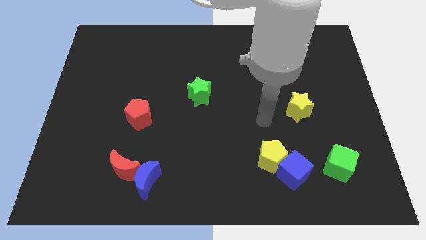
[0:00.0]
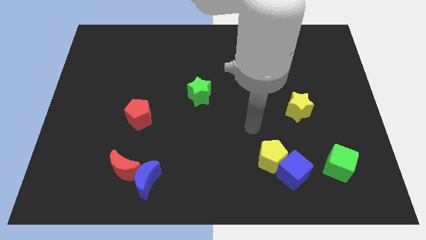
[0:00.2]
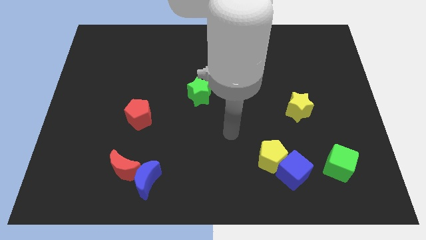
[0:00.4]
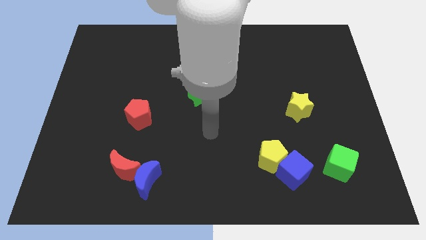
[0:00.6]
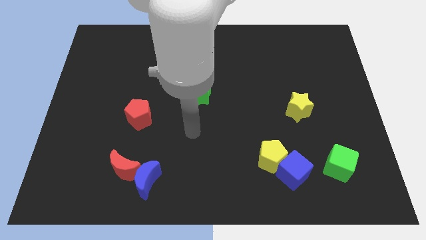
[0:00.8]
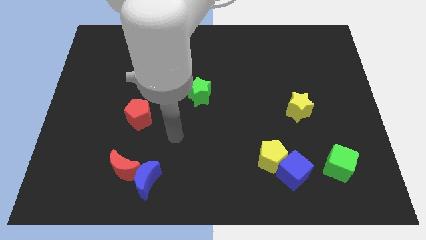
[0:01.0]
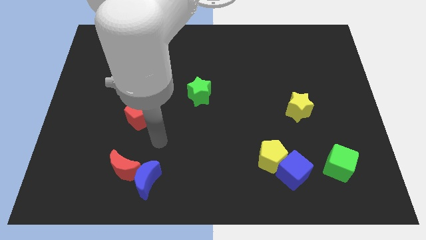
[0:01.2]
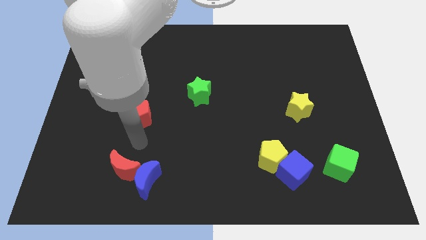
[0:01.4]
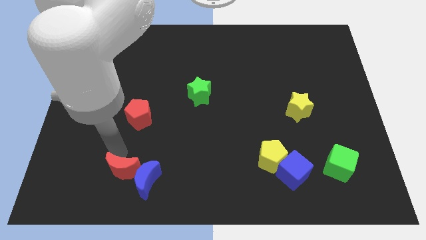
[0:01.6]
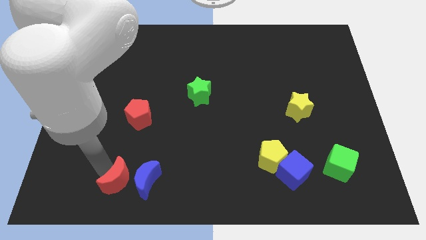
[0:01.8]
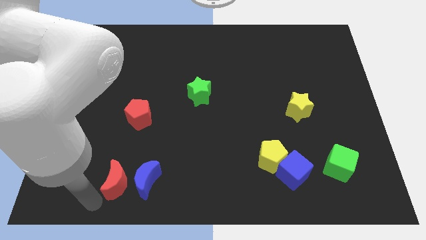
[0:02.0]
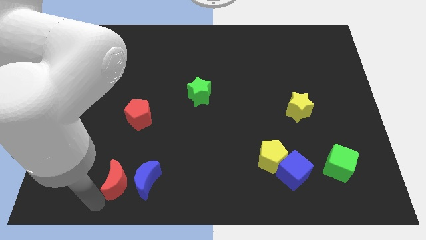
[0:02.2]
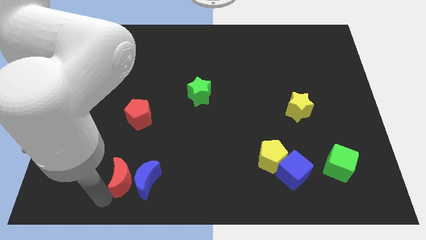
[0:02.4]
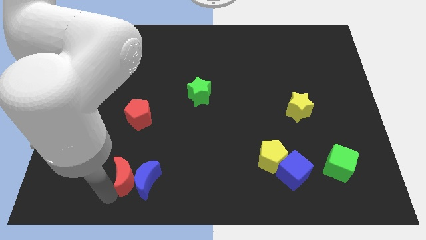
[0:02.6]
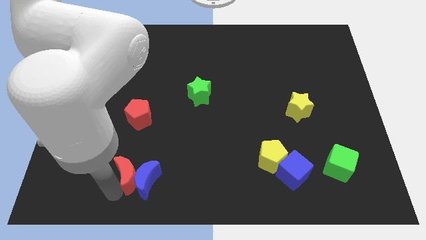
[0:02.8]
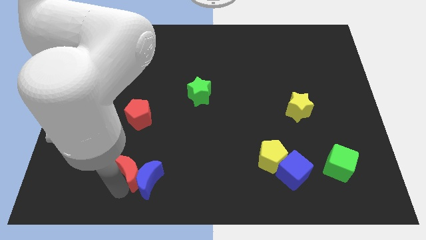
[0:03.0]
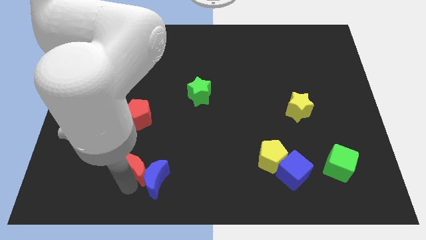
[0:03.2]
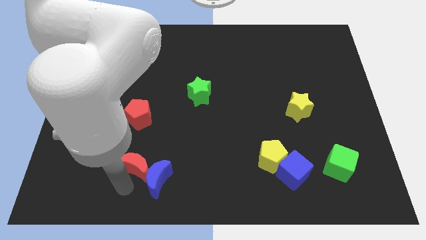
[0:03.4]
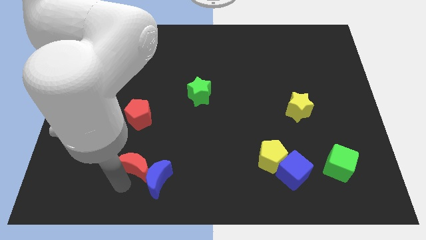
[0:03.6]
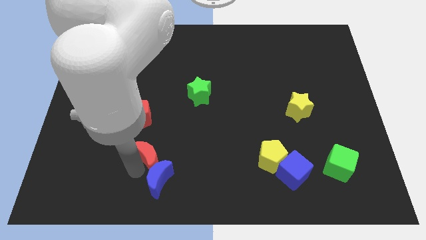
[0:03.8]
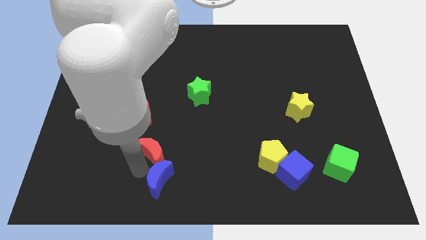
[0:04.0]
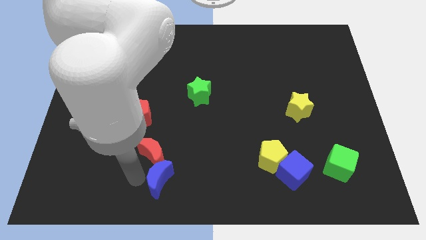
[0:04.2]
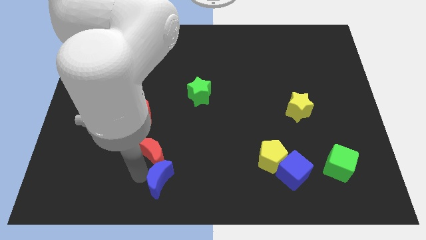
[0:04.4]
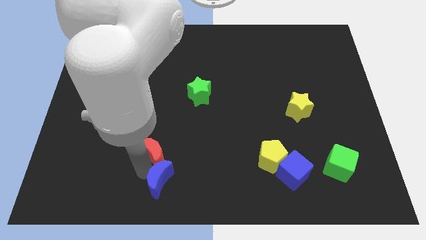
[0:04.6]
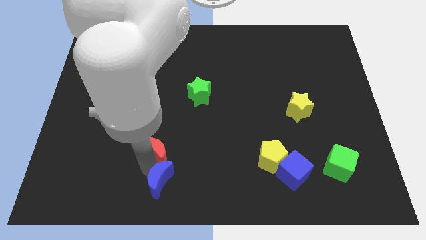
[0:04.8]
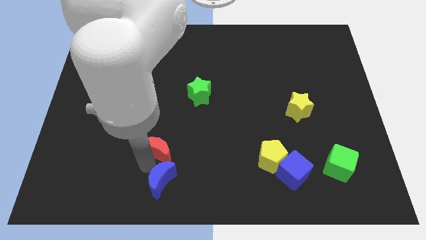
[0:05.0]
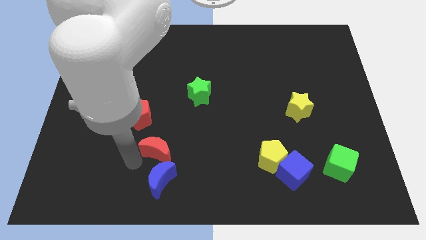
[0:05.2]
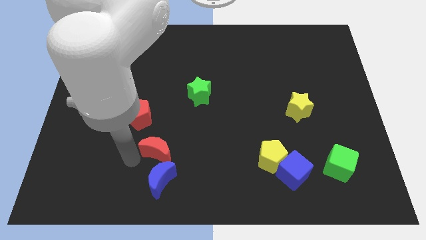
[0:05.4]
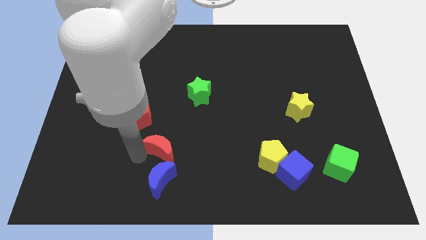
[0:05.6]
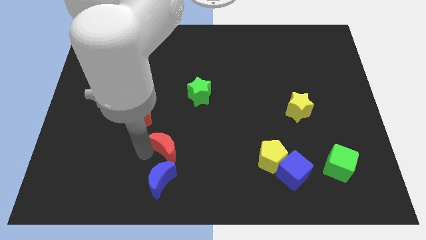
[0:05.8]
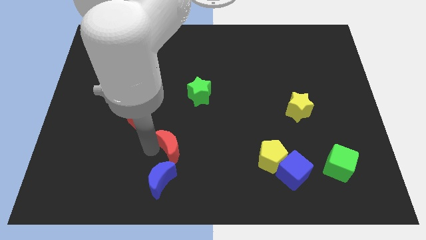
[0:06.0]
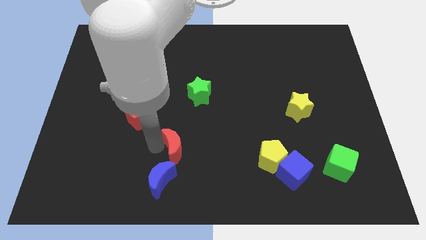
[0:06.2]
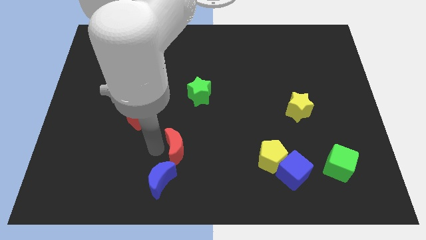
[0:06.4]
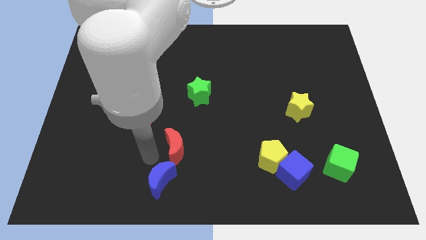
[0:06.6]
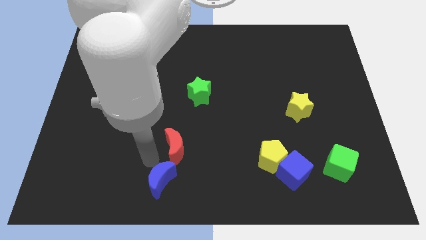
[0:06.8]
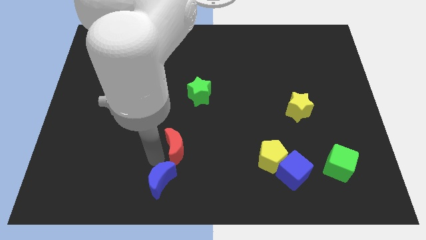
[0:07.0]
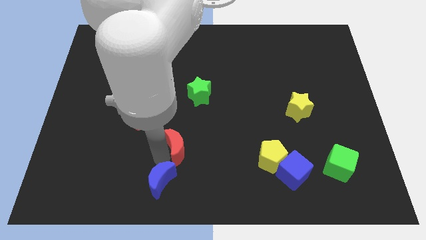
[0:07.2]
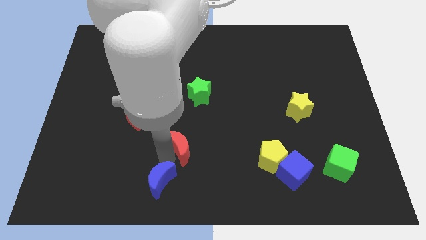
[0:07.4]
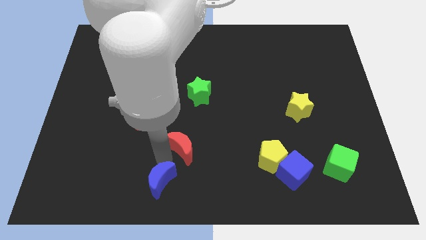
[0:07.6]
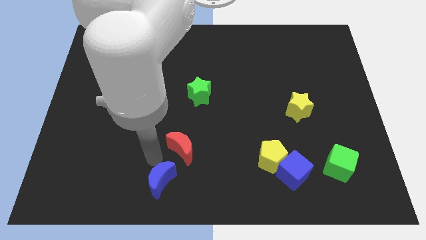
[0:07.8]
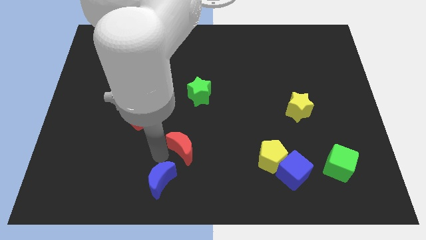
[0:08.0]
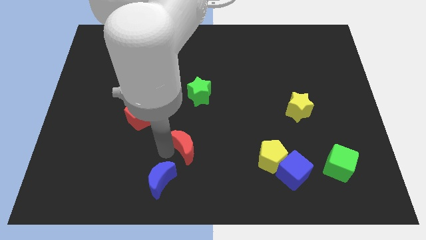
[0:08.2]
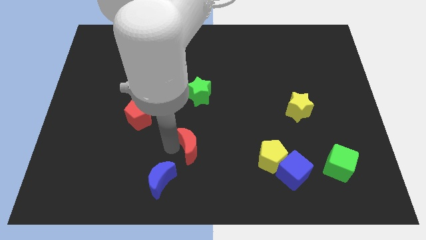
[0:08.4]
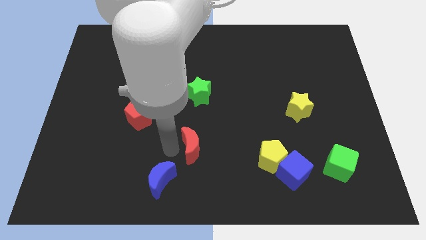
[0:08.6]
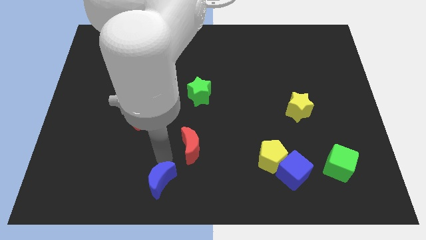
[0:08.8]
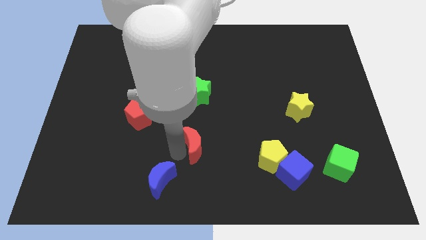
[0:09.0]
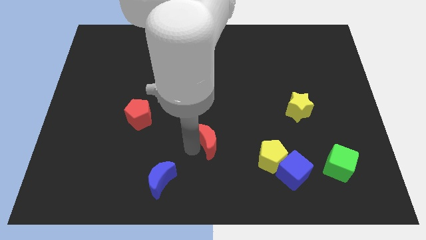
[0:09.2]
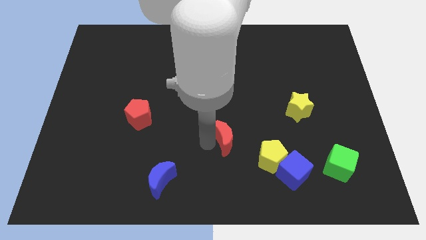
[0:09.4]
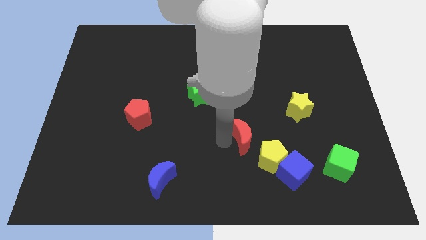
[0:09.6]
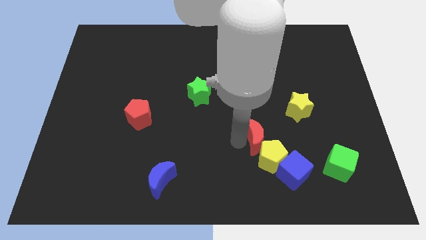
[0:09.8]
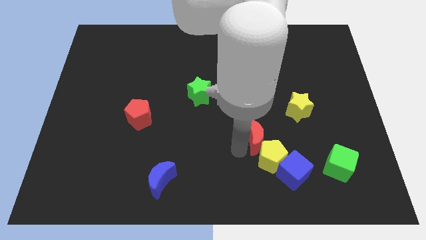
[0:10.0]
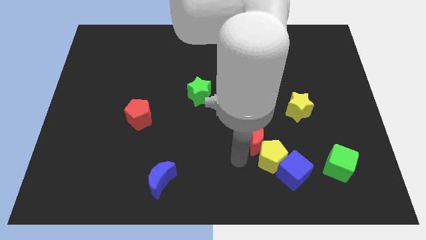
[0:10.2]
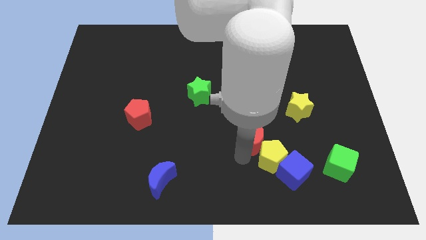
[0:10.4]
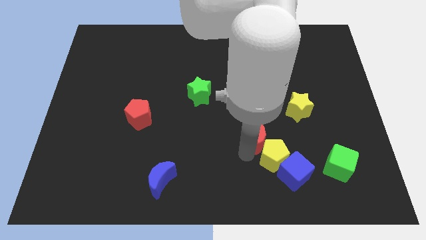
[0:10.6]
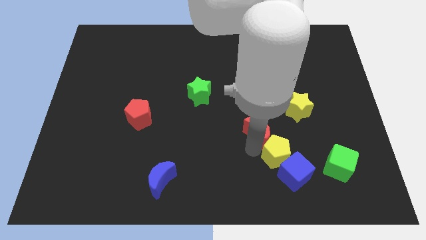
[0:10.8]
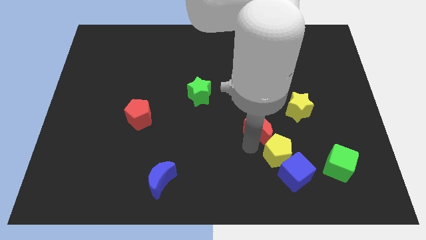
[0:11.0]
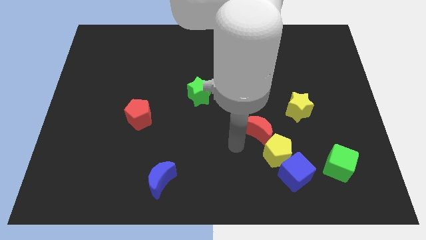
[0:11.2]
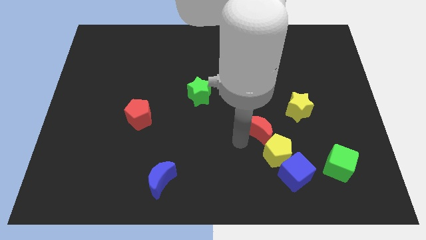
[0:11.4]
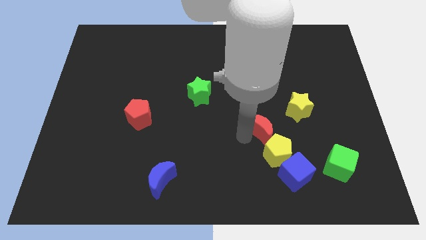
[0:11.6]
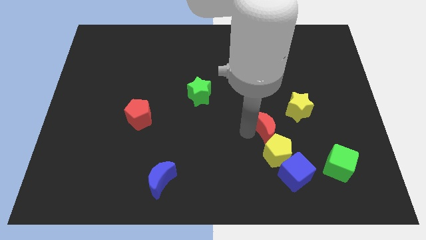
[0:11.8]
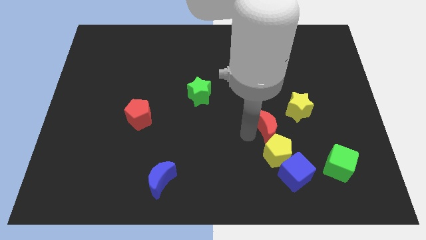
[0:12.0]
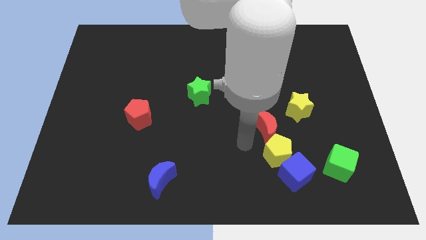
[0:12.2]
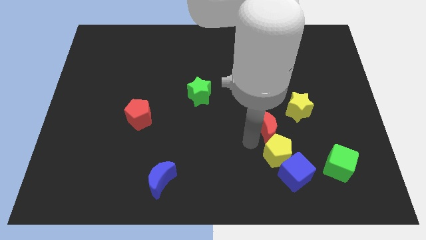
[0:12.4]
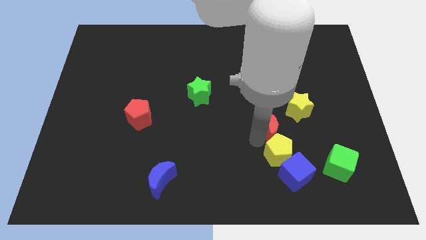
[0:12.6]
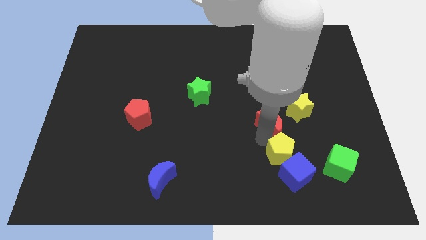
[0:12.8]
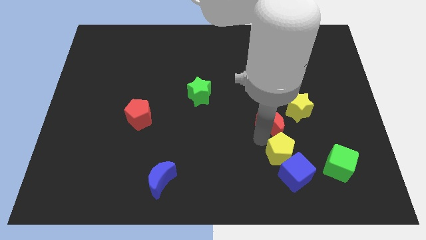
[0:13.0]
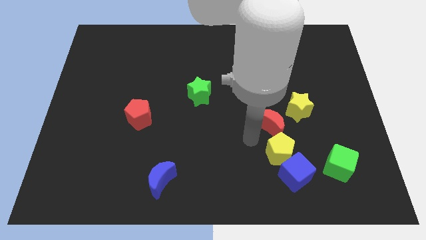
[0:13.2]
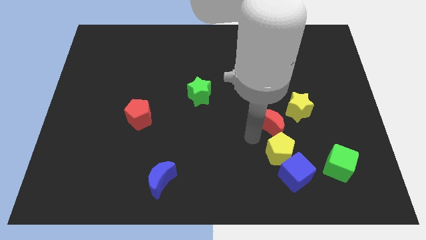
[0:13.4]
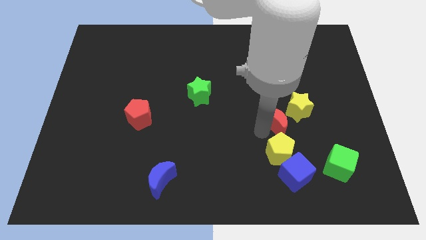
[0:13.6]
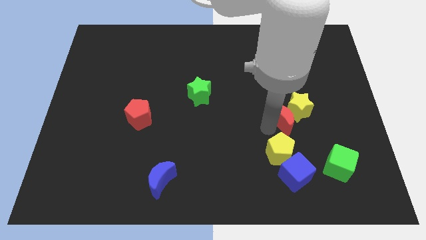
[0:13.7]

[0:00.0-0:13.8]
slide the red moon towards the yellow star

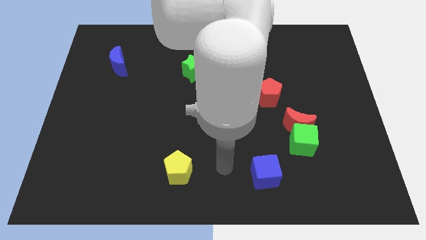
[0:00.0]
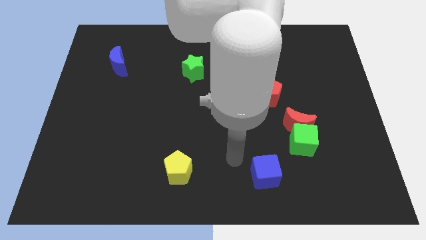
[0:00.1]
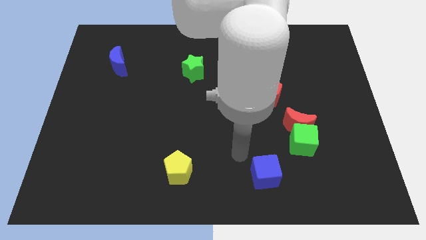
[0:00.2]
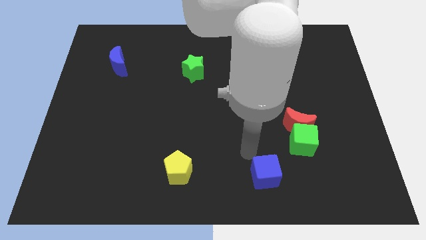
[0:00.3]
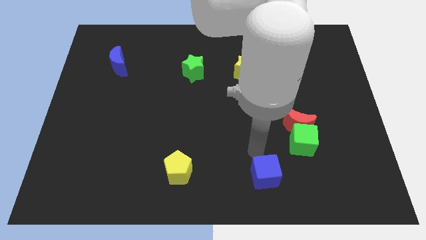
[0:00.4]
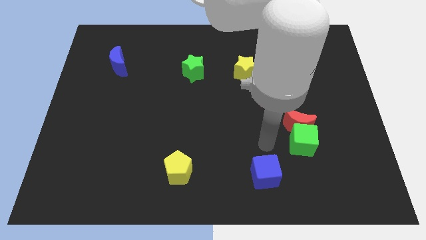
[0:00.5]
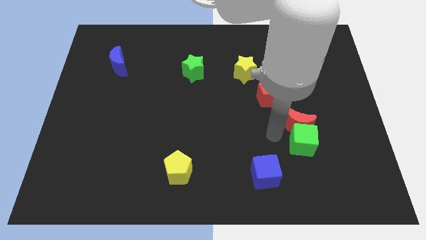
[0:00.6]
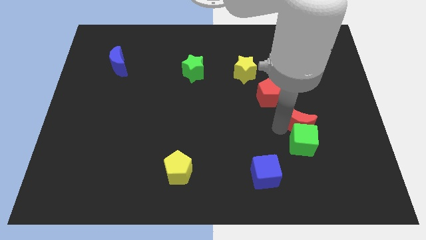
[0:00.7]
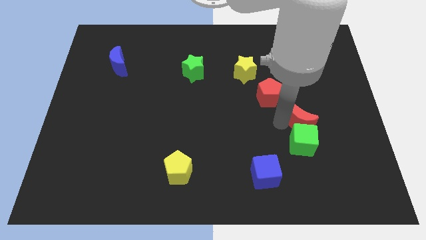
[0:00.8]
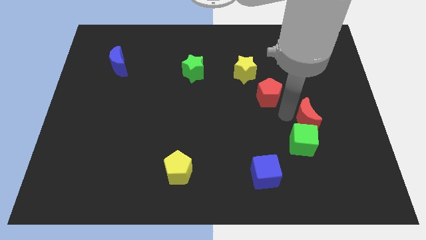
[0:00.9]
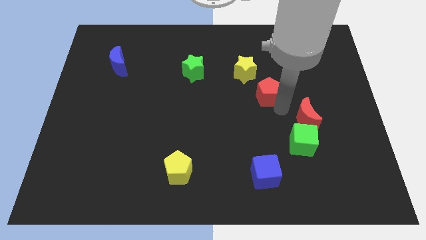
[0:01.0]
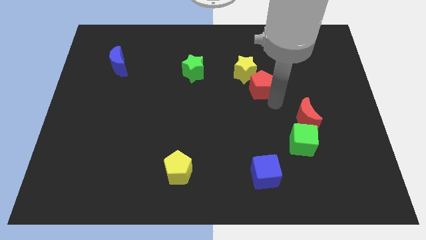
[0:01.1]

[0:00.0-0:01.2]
push the red pentagon to the yellow star
